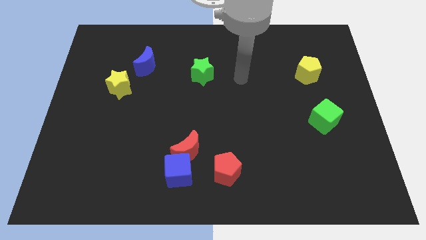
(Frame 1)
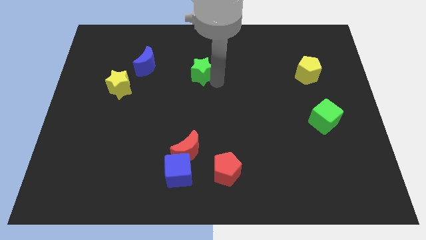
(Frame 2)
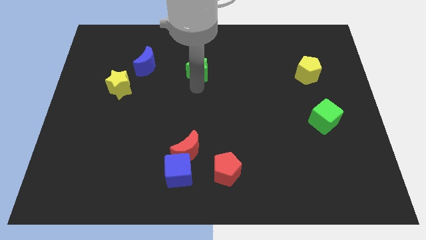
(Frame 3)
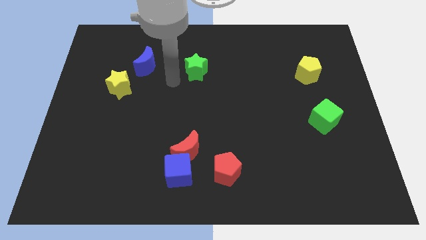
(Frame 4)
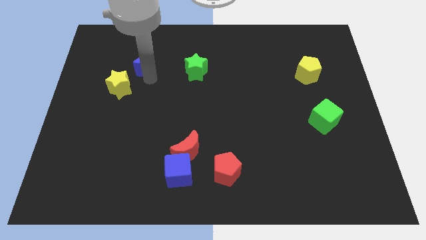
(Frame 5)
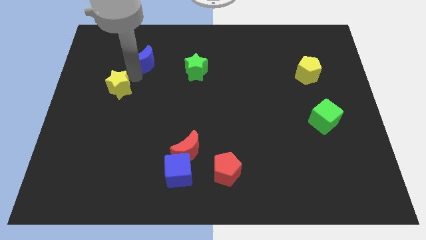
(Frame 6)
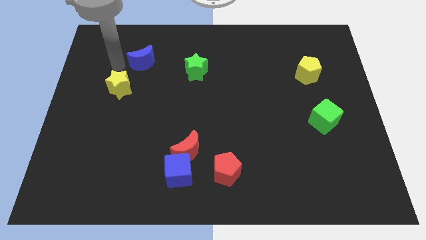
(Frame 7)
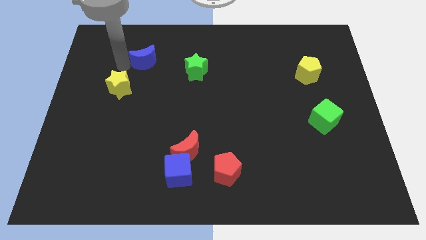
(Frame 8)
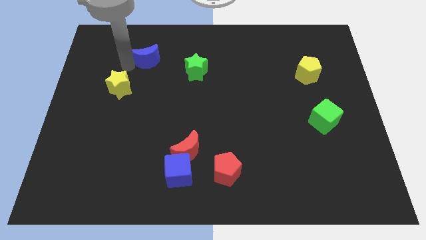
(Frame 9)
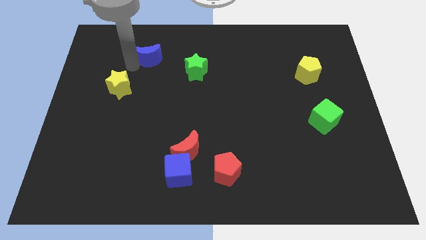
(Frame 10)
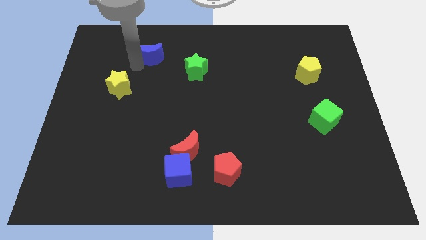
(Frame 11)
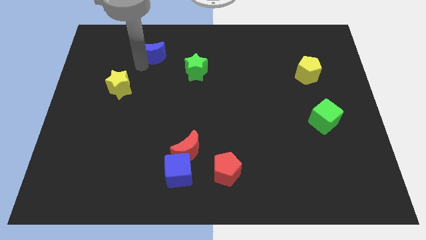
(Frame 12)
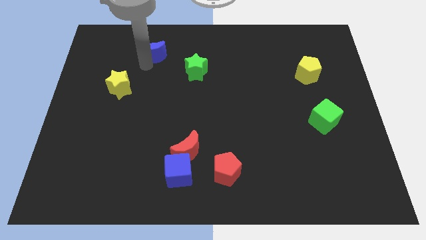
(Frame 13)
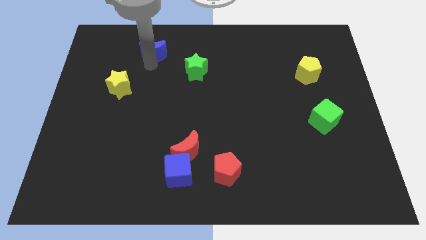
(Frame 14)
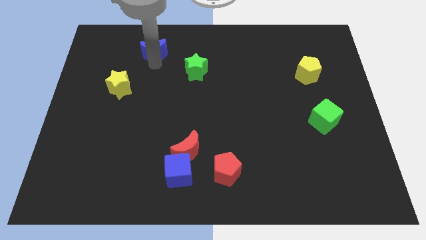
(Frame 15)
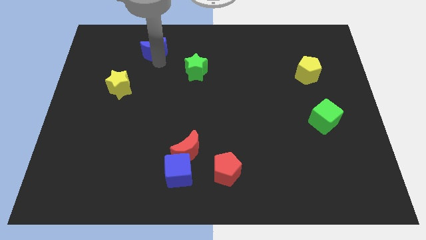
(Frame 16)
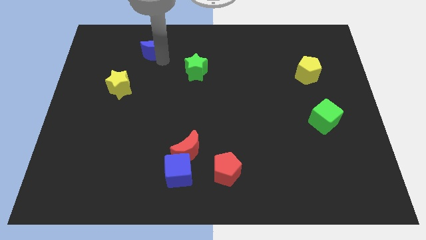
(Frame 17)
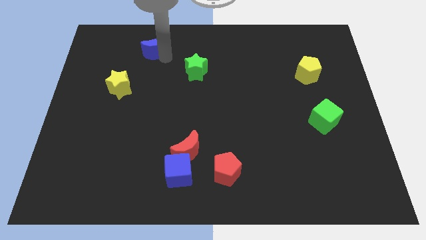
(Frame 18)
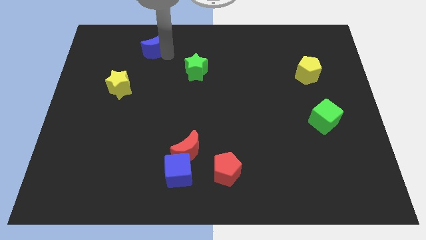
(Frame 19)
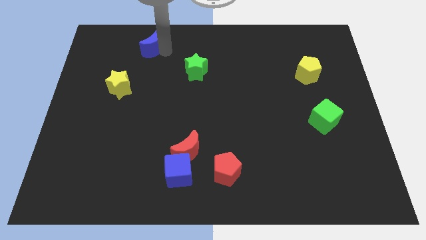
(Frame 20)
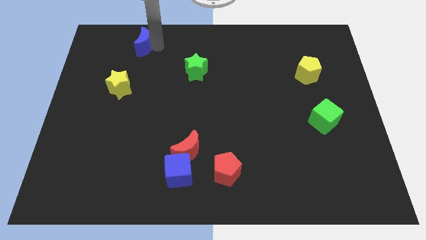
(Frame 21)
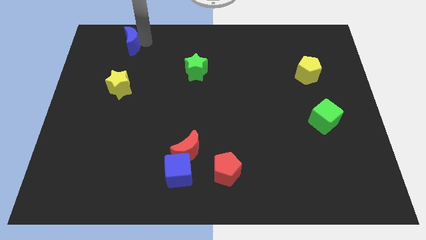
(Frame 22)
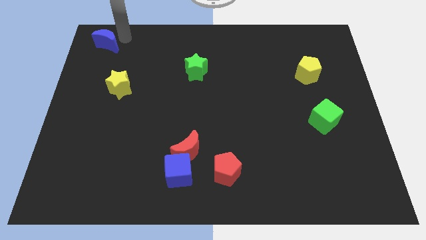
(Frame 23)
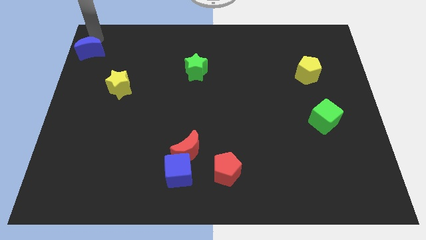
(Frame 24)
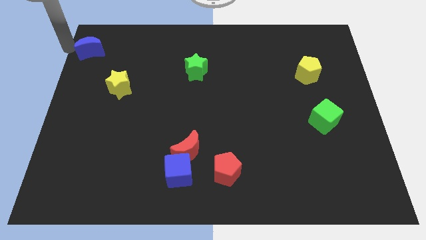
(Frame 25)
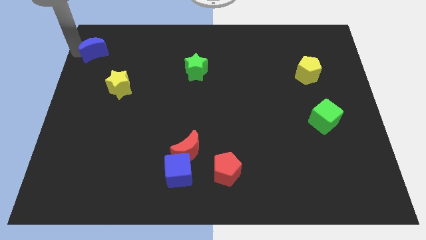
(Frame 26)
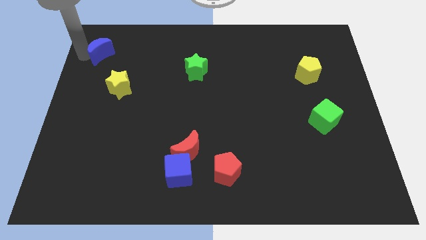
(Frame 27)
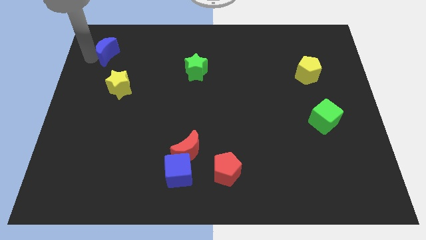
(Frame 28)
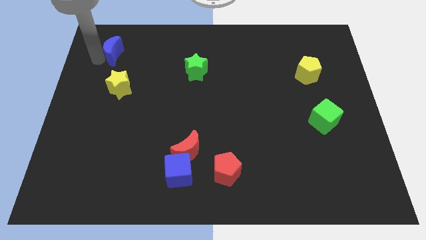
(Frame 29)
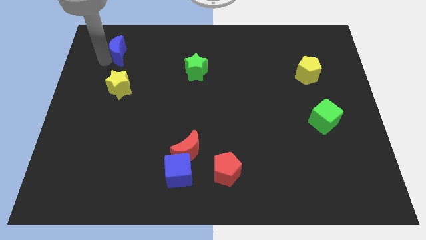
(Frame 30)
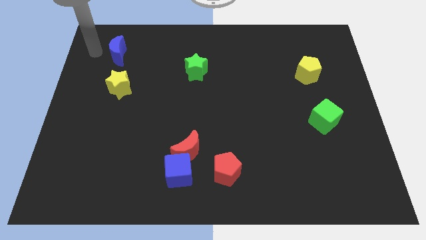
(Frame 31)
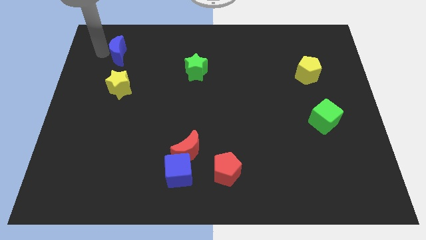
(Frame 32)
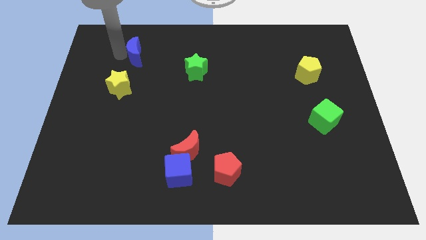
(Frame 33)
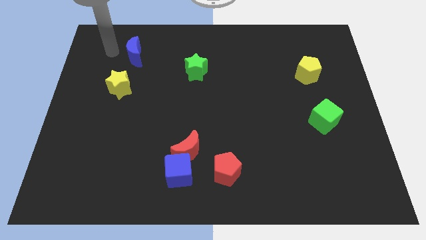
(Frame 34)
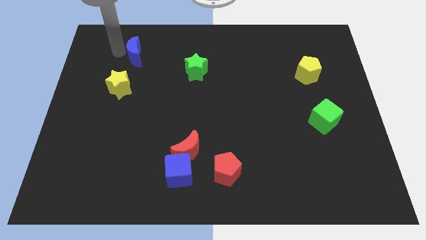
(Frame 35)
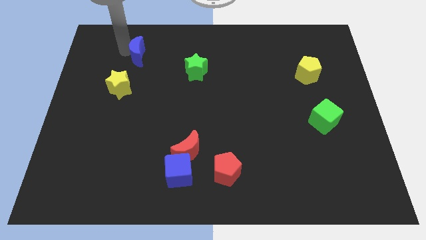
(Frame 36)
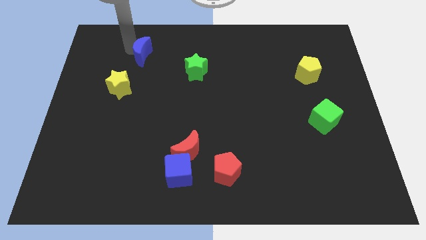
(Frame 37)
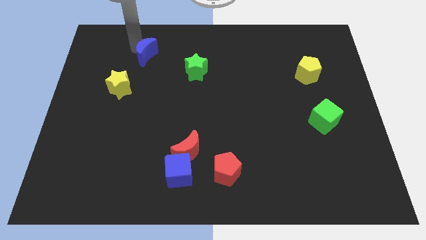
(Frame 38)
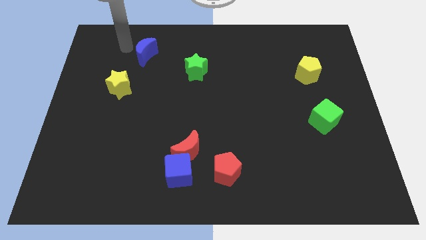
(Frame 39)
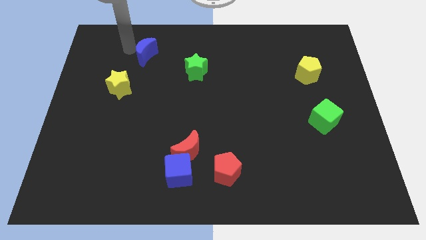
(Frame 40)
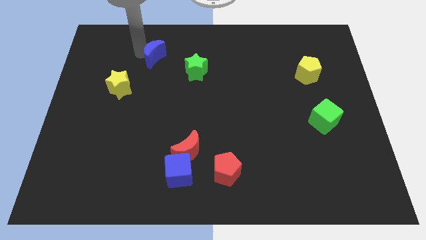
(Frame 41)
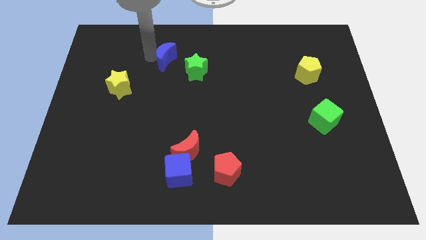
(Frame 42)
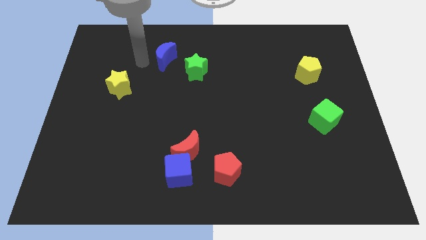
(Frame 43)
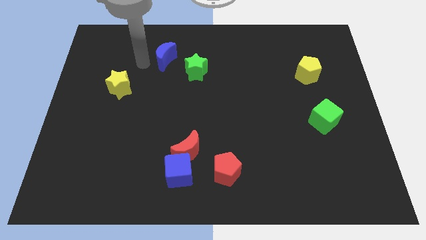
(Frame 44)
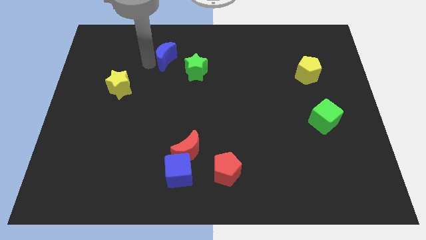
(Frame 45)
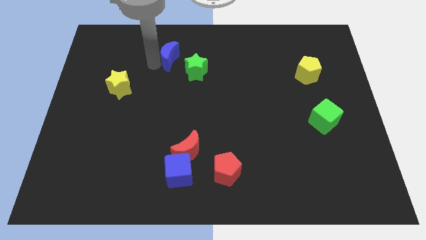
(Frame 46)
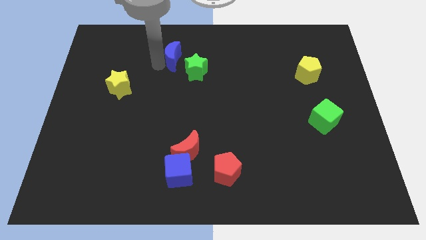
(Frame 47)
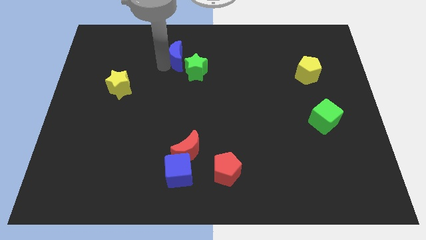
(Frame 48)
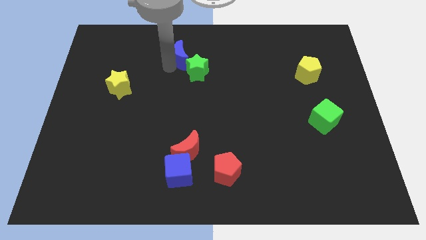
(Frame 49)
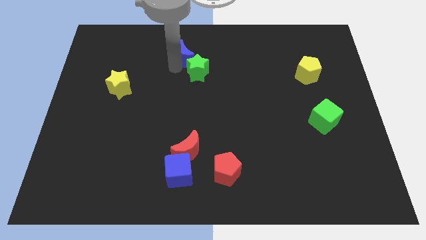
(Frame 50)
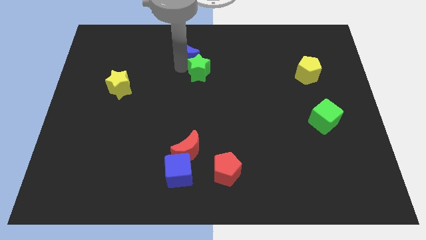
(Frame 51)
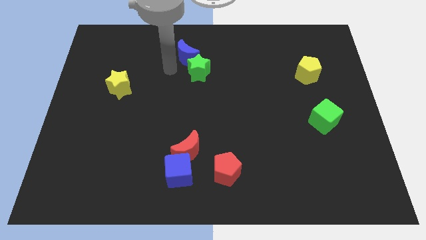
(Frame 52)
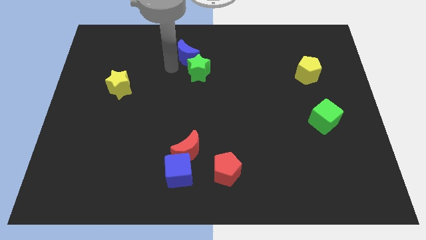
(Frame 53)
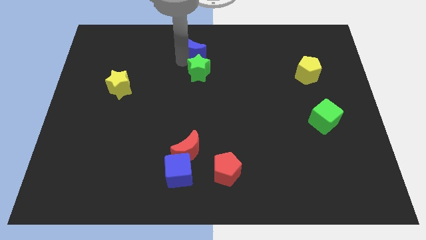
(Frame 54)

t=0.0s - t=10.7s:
move the blue moon to the towards your base
